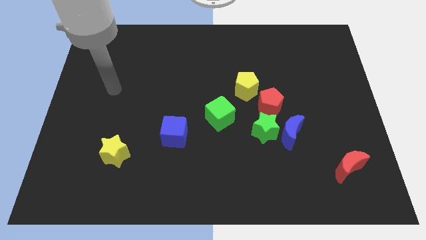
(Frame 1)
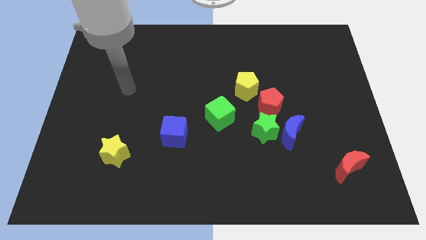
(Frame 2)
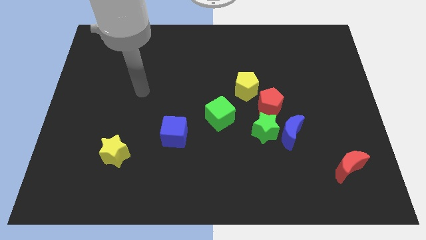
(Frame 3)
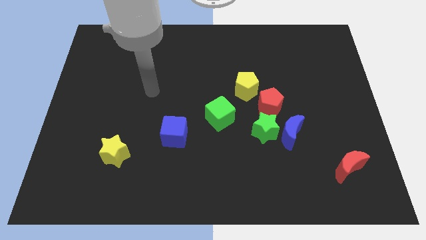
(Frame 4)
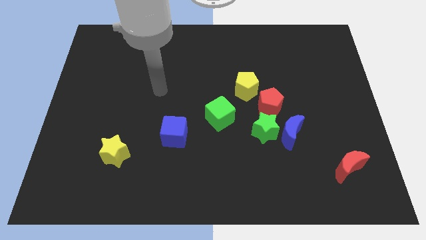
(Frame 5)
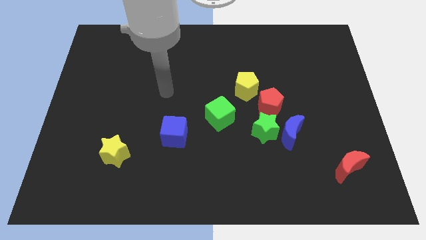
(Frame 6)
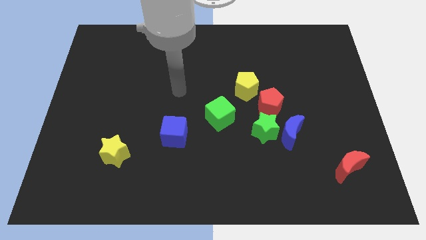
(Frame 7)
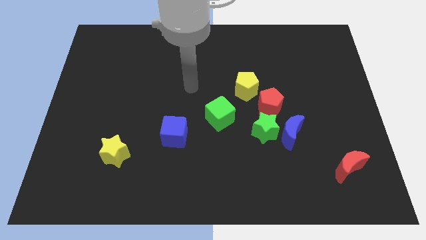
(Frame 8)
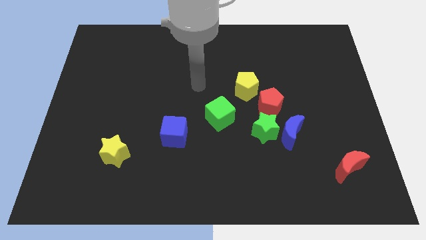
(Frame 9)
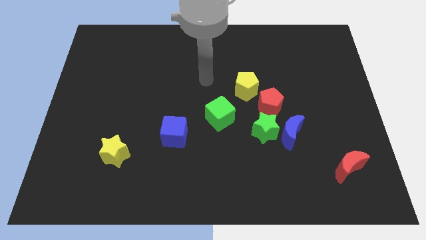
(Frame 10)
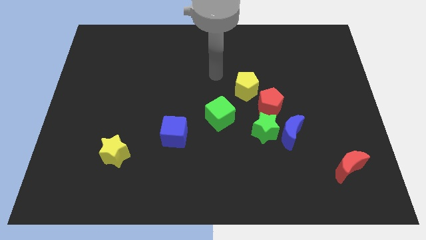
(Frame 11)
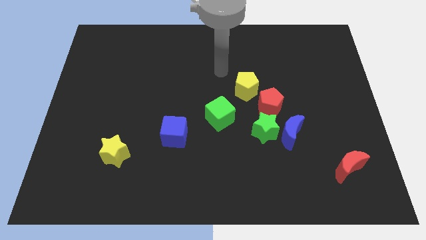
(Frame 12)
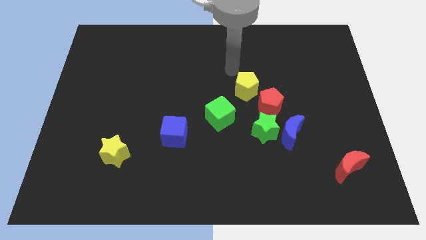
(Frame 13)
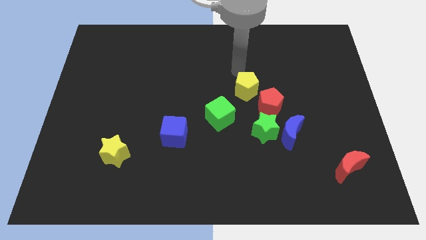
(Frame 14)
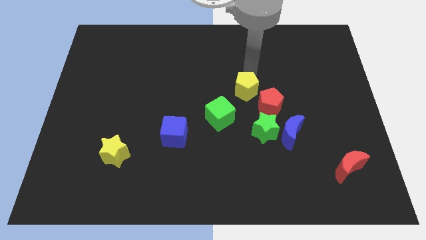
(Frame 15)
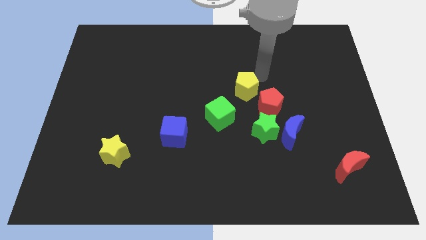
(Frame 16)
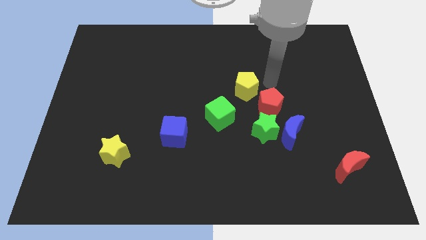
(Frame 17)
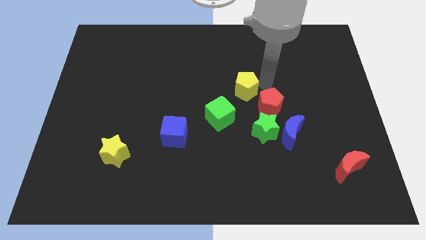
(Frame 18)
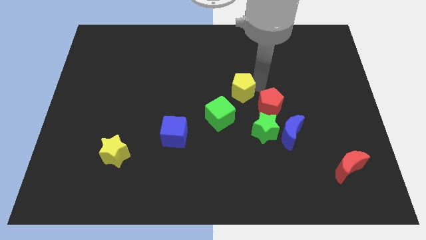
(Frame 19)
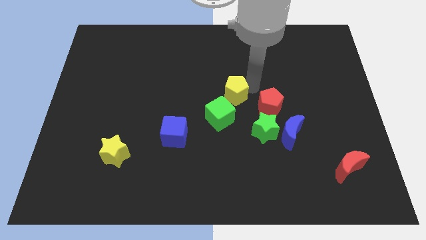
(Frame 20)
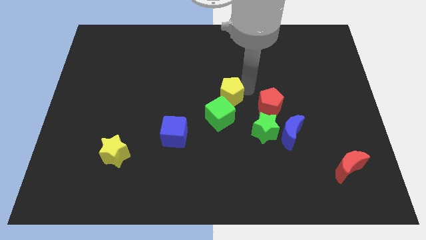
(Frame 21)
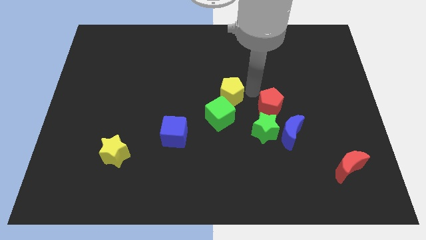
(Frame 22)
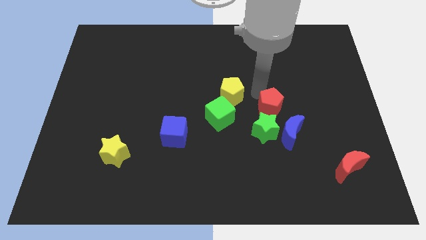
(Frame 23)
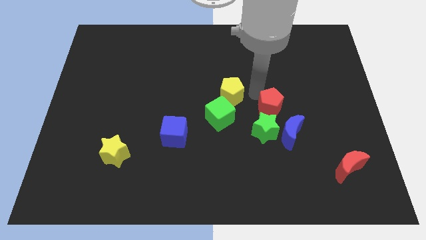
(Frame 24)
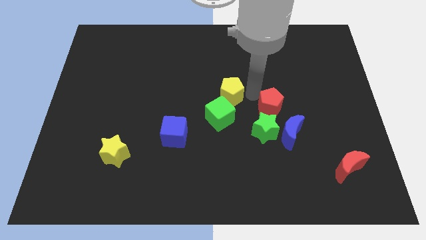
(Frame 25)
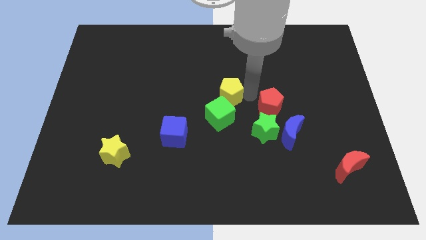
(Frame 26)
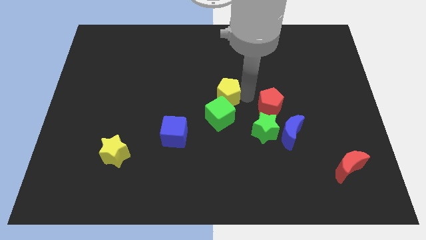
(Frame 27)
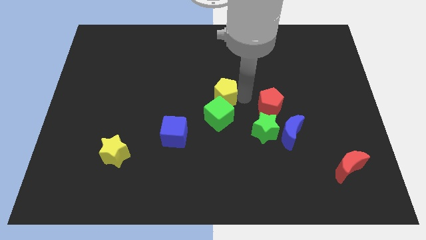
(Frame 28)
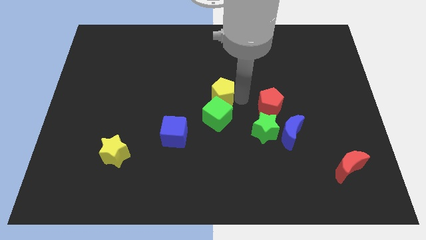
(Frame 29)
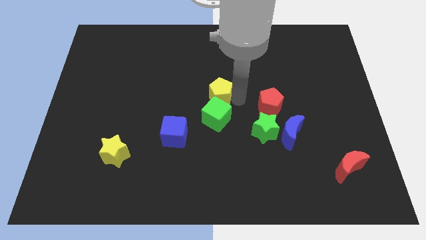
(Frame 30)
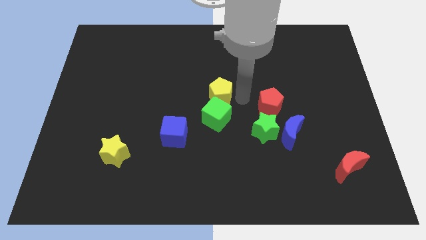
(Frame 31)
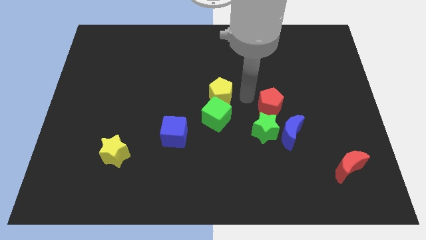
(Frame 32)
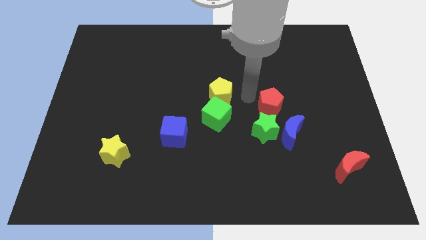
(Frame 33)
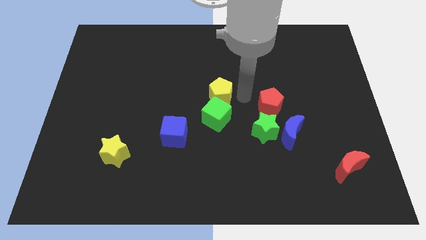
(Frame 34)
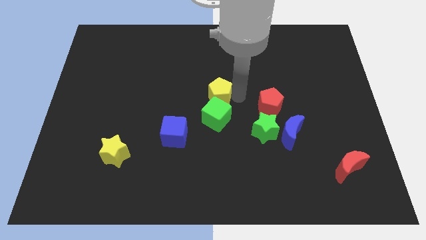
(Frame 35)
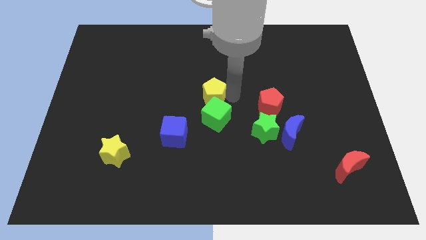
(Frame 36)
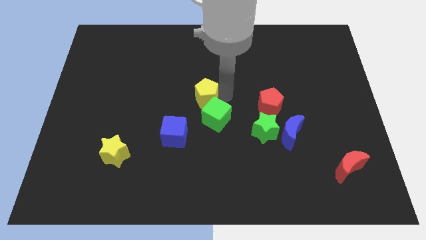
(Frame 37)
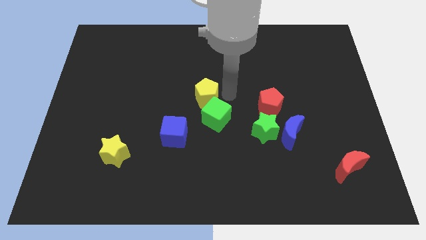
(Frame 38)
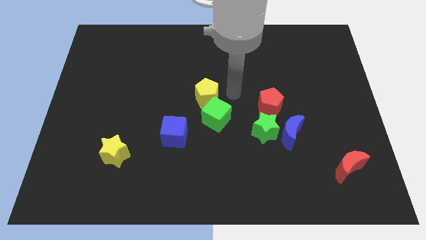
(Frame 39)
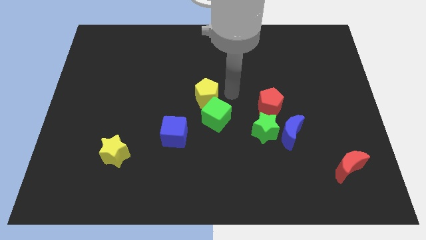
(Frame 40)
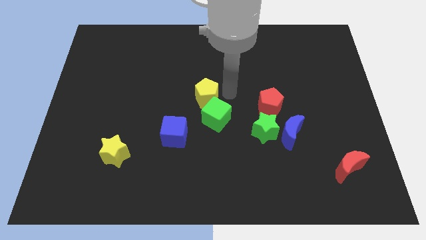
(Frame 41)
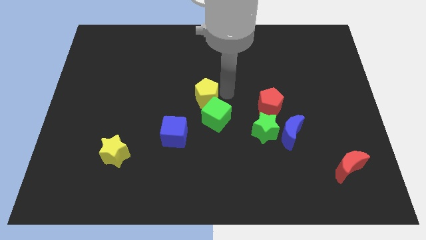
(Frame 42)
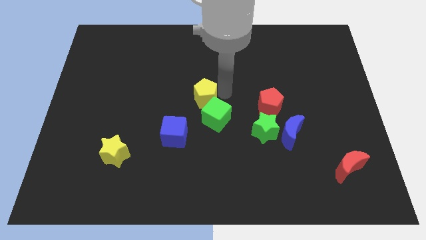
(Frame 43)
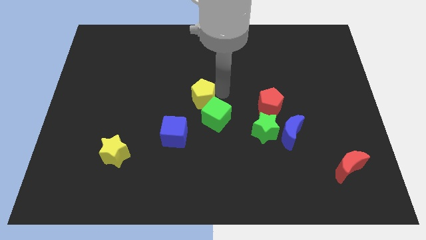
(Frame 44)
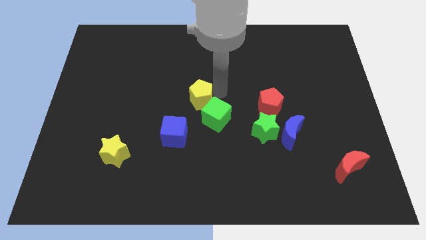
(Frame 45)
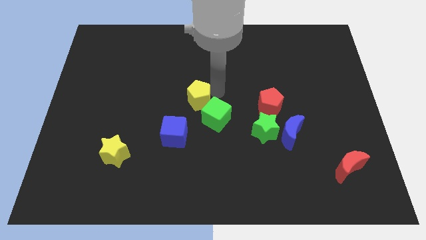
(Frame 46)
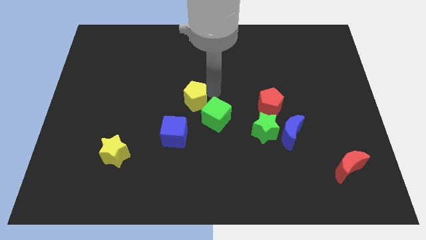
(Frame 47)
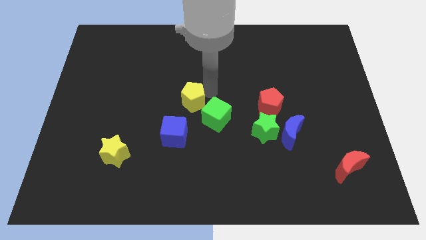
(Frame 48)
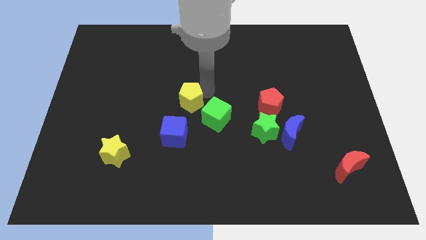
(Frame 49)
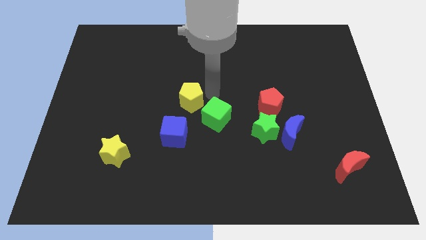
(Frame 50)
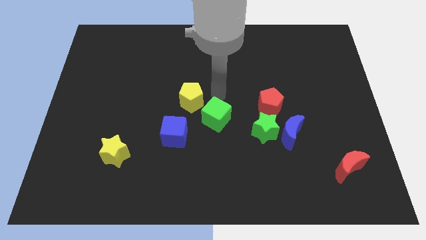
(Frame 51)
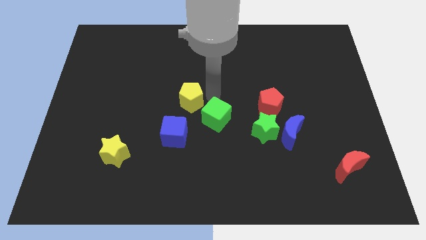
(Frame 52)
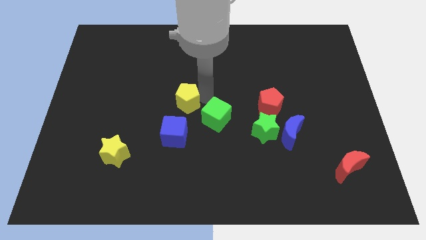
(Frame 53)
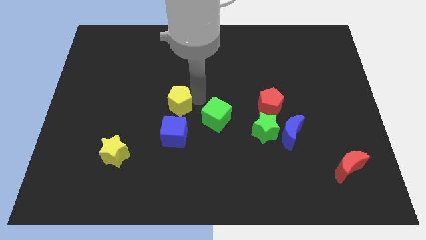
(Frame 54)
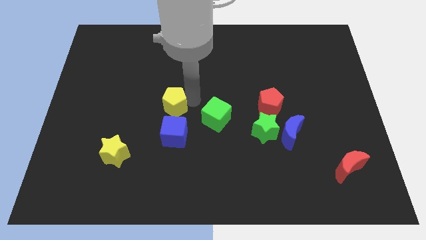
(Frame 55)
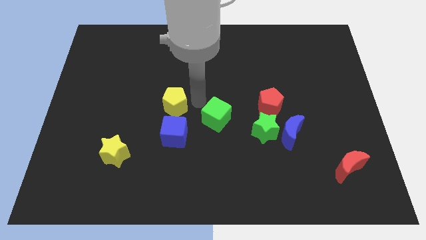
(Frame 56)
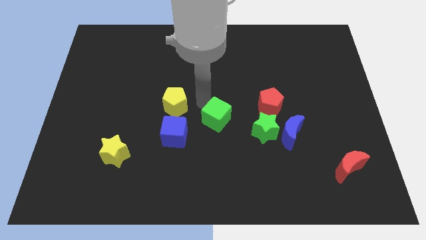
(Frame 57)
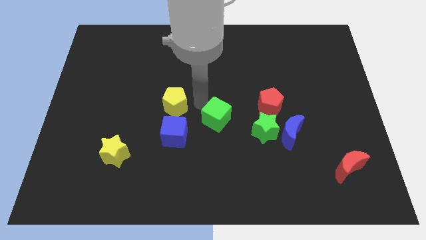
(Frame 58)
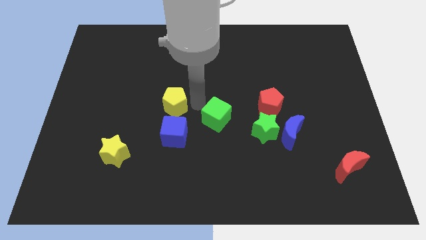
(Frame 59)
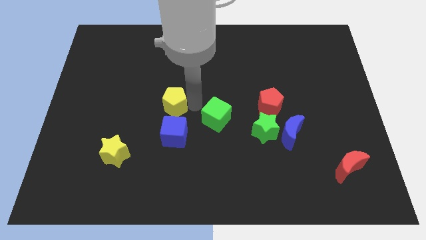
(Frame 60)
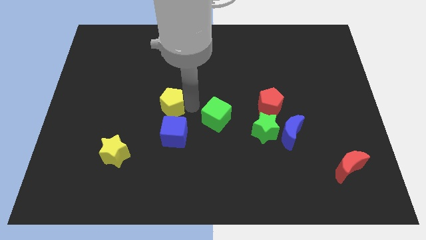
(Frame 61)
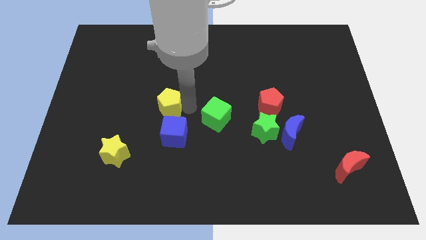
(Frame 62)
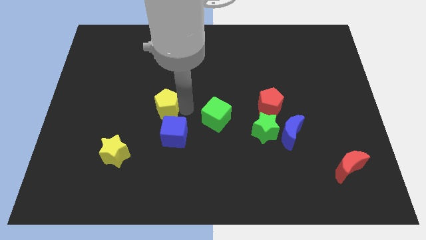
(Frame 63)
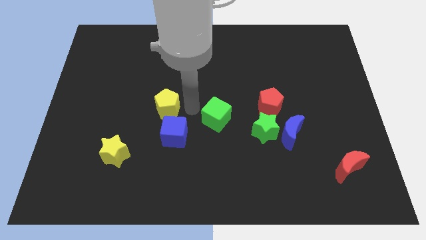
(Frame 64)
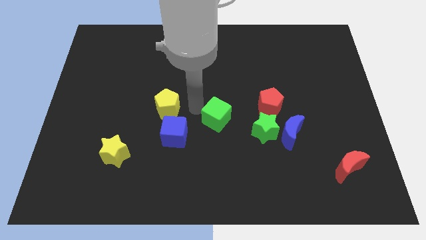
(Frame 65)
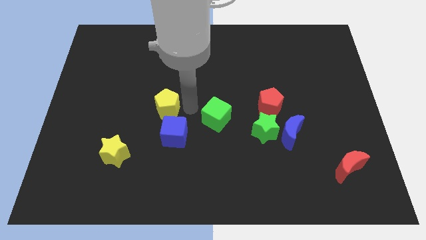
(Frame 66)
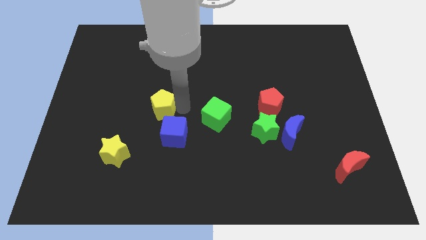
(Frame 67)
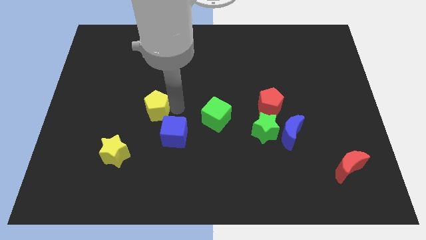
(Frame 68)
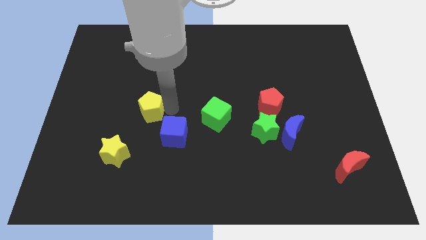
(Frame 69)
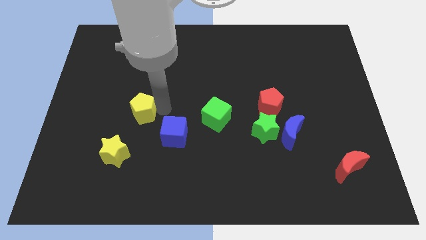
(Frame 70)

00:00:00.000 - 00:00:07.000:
move the yellow pentagon to the top of the yellow star
